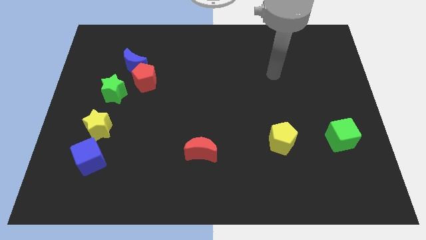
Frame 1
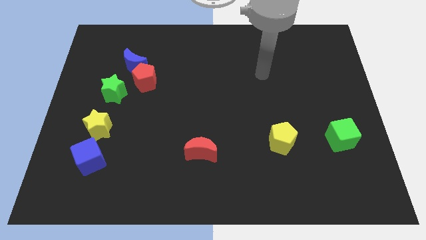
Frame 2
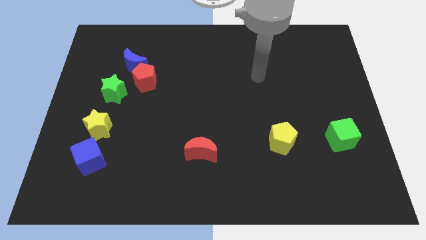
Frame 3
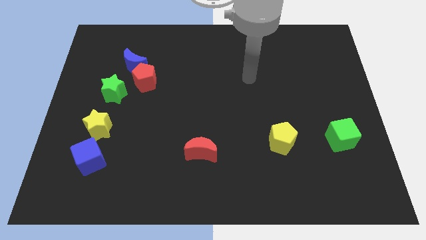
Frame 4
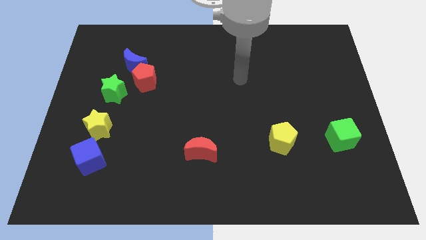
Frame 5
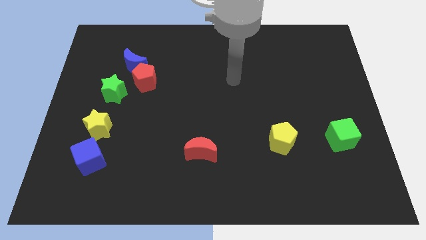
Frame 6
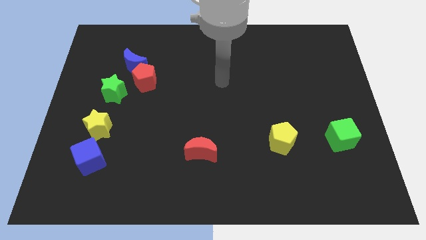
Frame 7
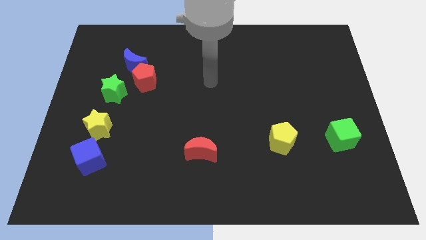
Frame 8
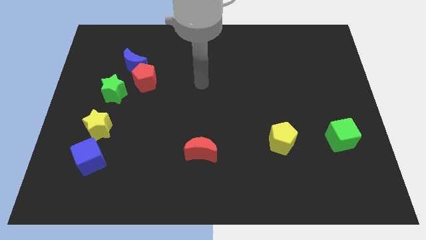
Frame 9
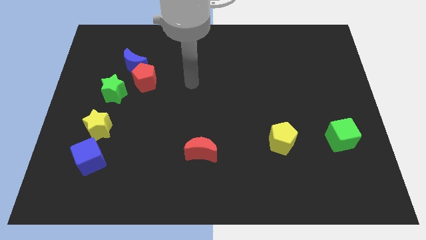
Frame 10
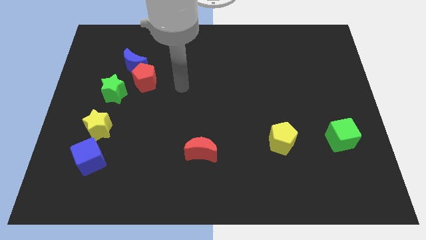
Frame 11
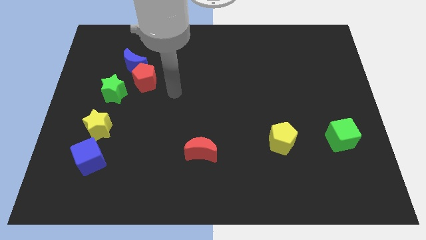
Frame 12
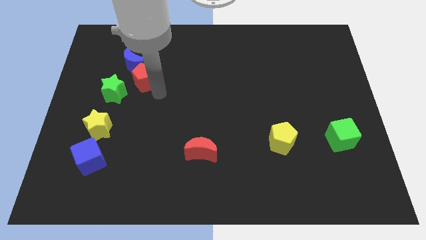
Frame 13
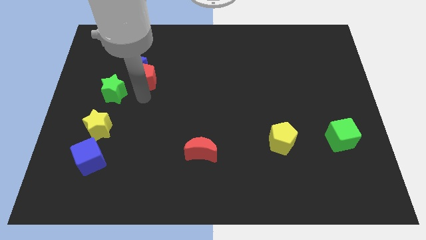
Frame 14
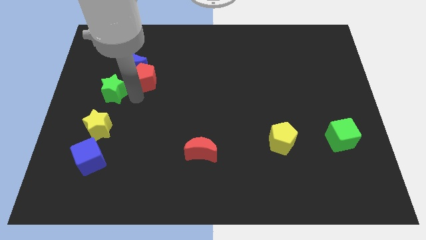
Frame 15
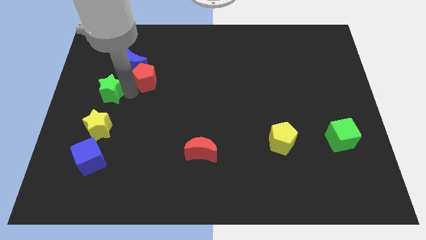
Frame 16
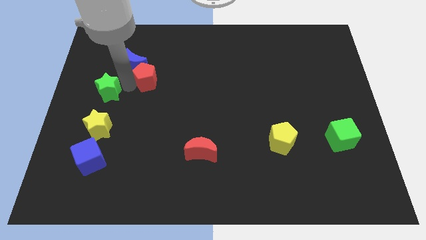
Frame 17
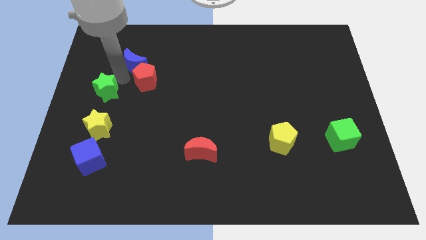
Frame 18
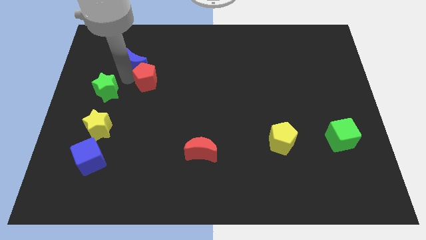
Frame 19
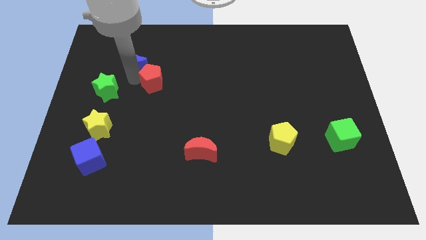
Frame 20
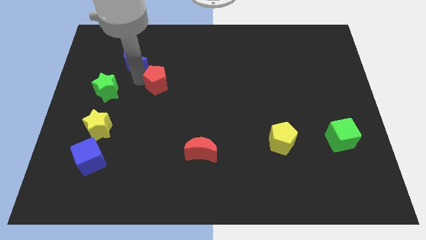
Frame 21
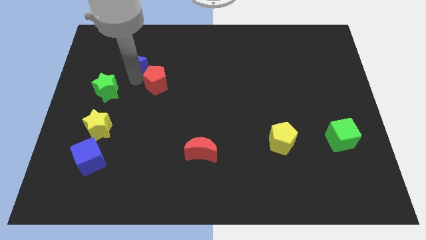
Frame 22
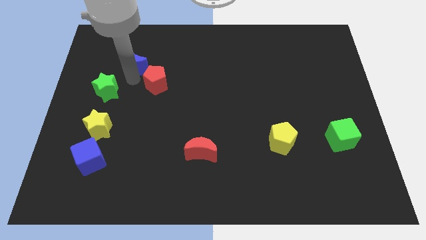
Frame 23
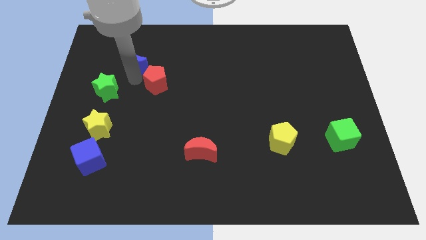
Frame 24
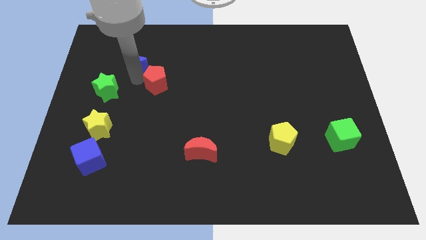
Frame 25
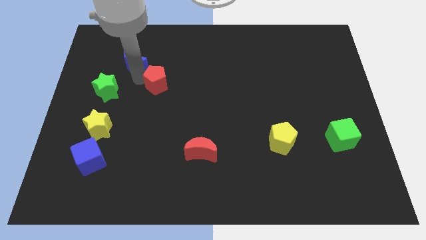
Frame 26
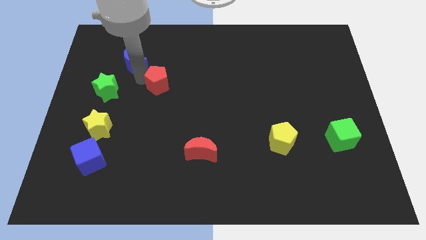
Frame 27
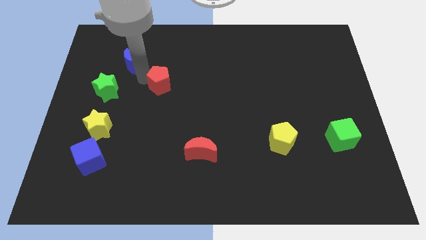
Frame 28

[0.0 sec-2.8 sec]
pull the red pentagon apart from the blue moon and green star

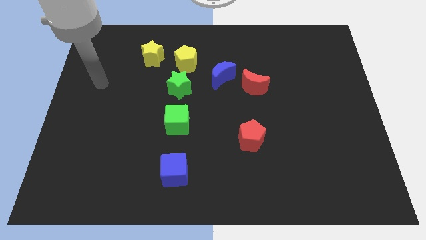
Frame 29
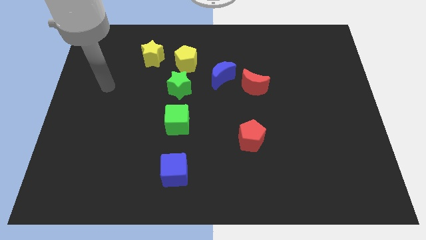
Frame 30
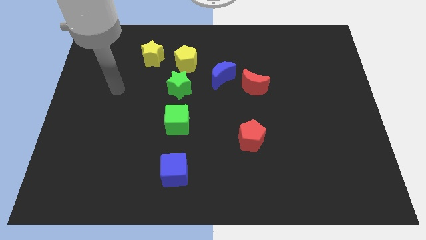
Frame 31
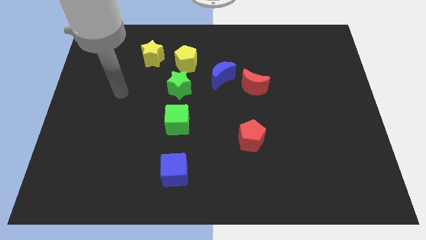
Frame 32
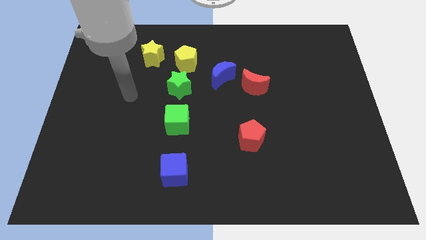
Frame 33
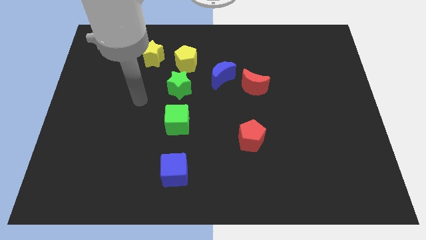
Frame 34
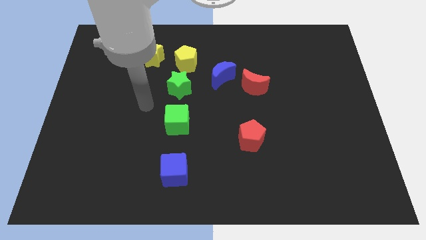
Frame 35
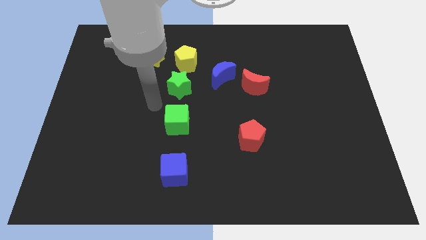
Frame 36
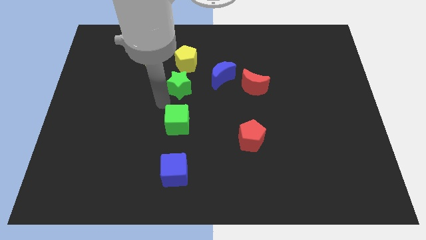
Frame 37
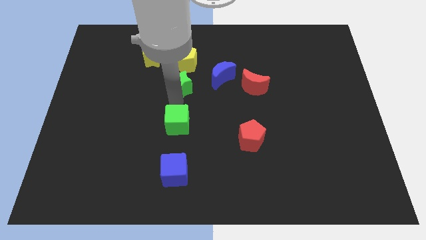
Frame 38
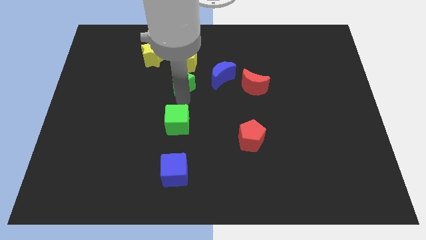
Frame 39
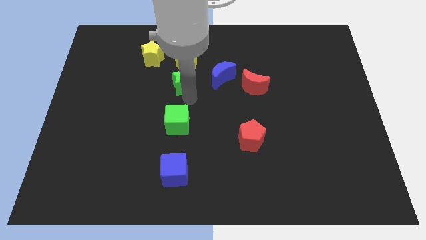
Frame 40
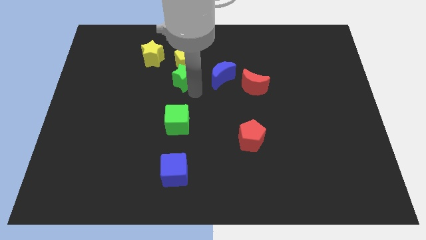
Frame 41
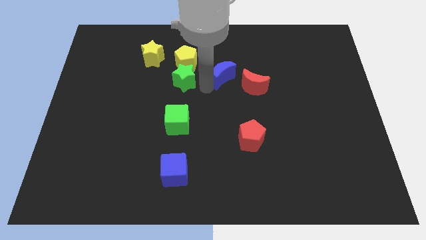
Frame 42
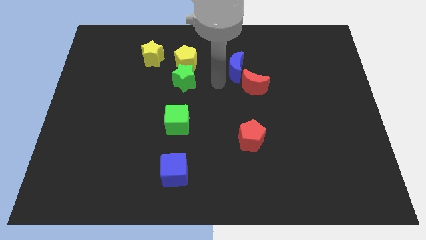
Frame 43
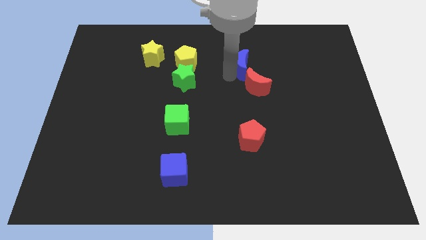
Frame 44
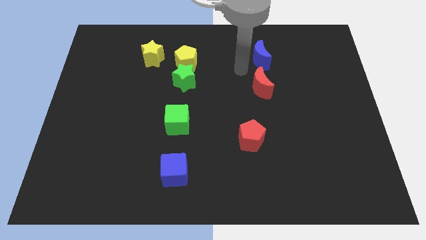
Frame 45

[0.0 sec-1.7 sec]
separate the red moon from the blue moon

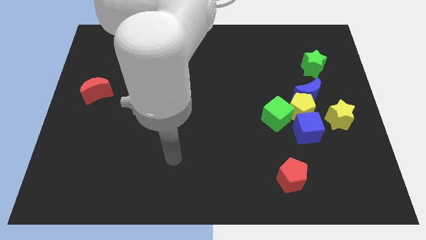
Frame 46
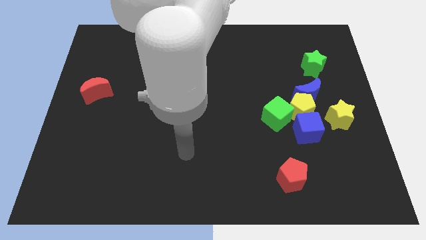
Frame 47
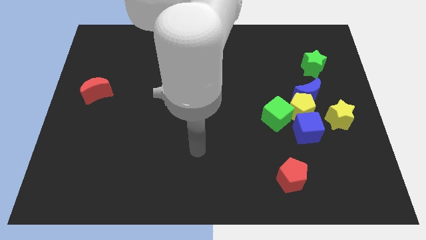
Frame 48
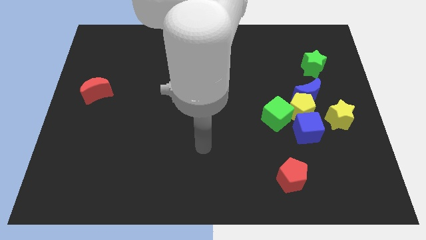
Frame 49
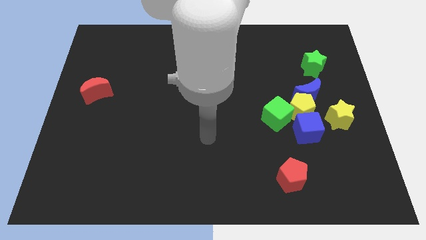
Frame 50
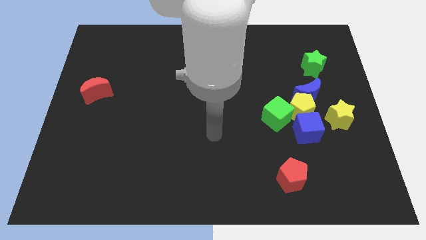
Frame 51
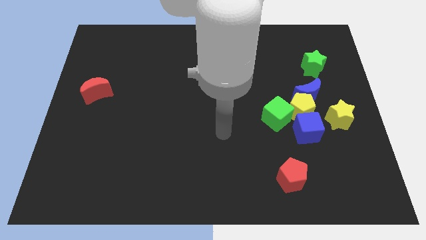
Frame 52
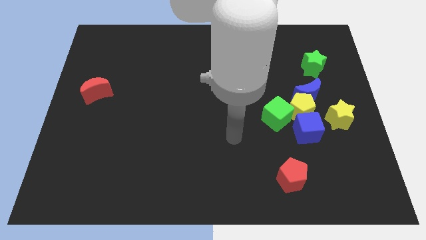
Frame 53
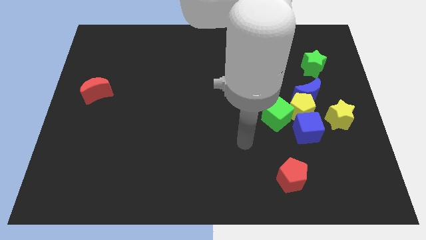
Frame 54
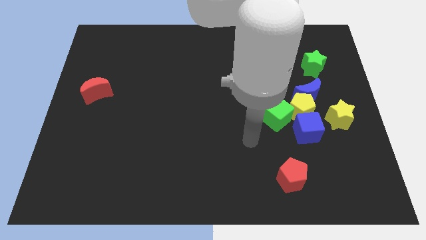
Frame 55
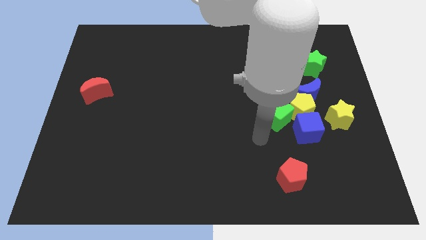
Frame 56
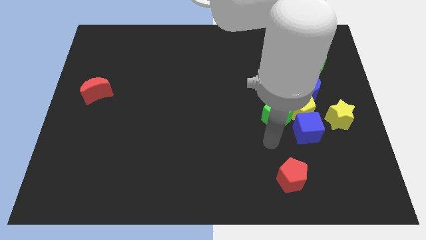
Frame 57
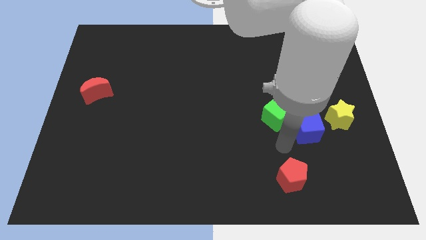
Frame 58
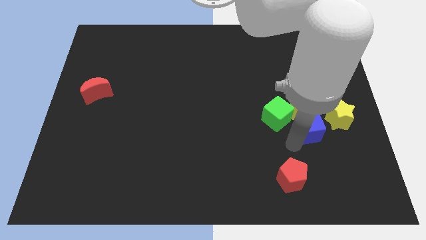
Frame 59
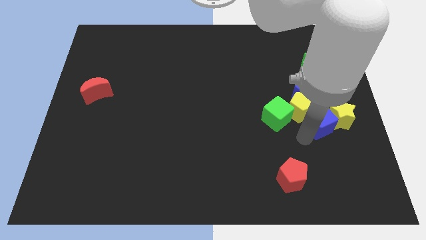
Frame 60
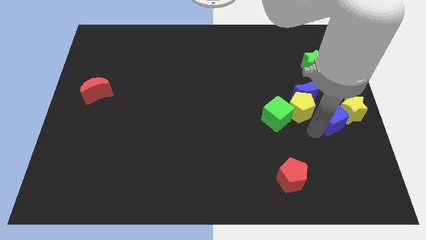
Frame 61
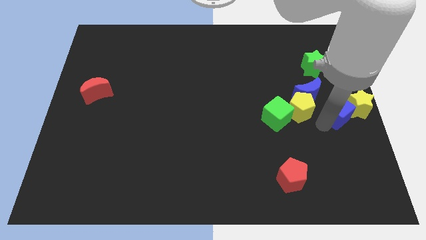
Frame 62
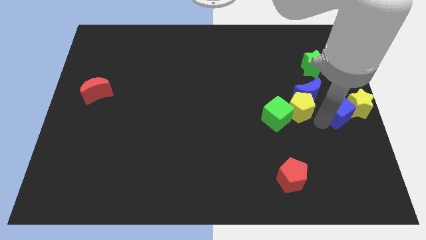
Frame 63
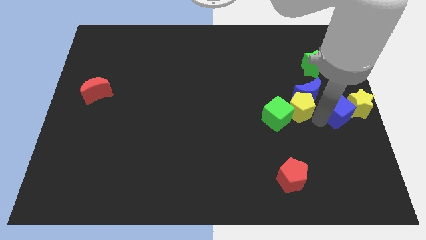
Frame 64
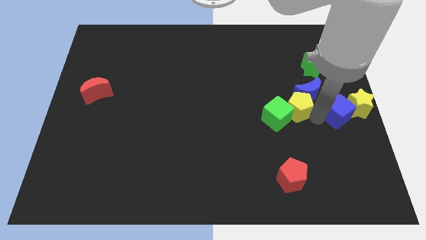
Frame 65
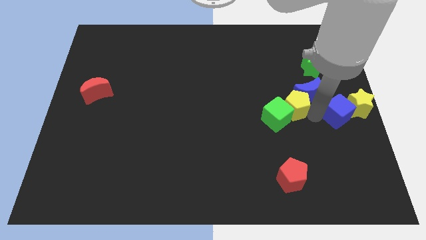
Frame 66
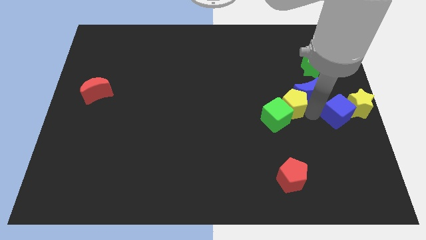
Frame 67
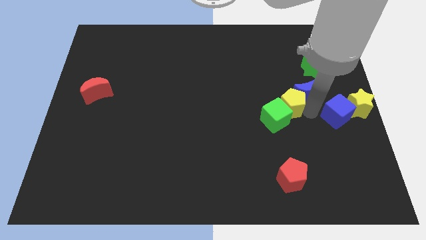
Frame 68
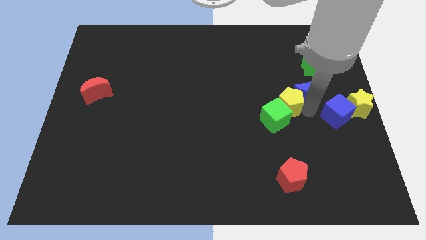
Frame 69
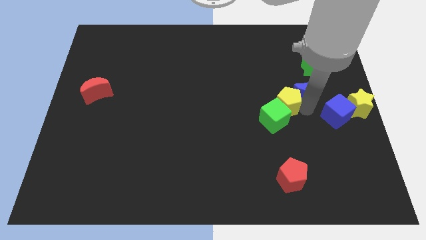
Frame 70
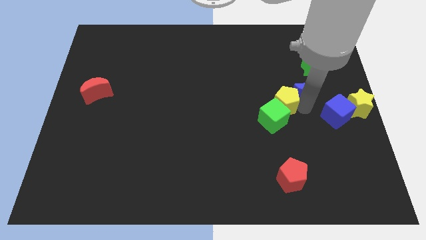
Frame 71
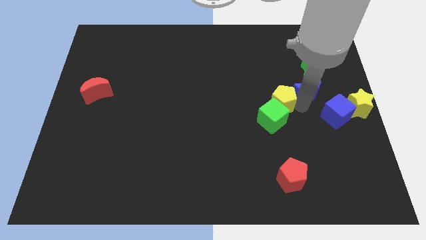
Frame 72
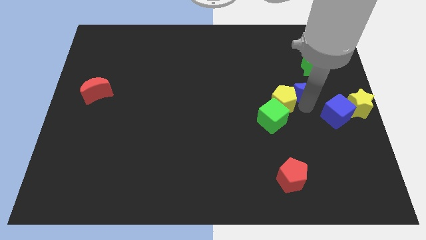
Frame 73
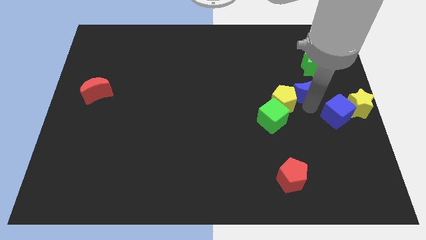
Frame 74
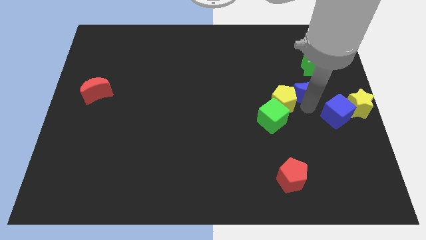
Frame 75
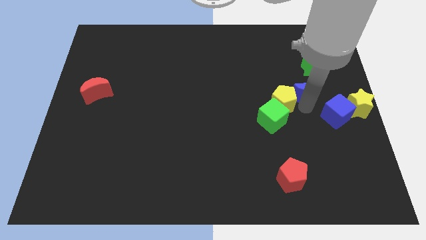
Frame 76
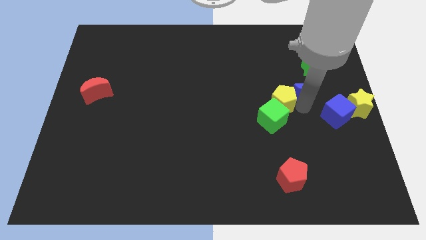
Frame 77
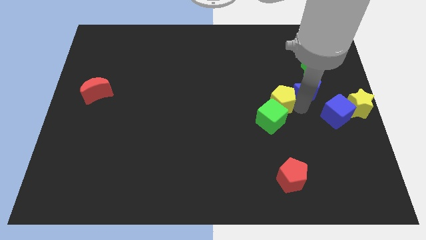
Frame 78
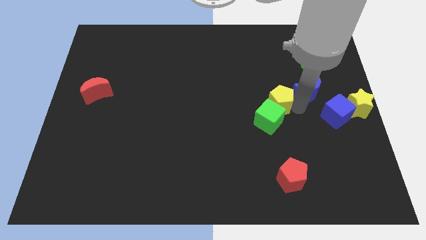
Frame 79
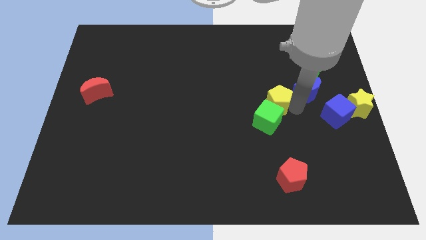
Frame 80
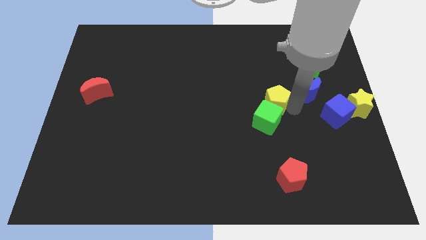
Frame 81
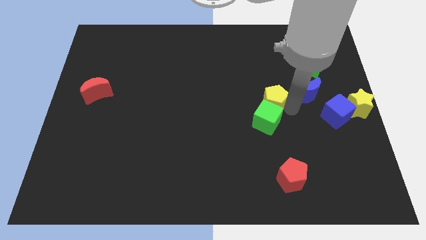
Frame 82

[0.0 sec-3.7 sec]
pull the yellow pentagon apart from the group of blocks

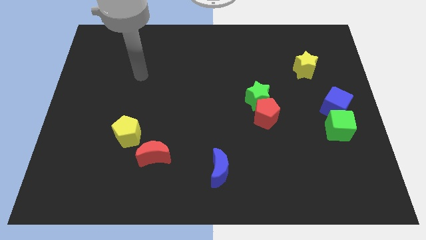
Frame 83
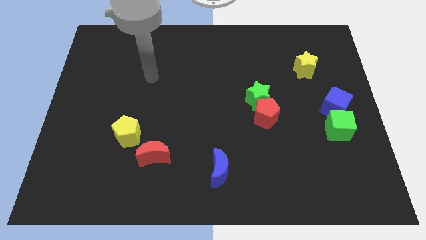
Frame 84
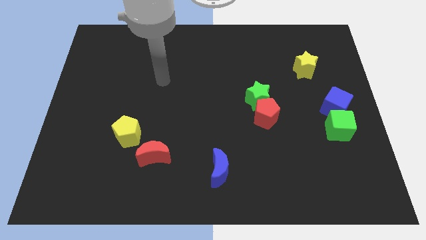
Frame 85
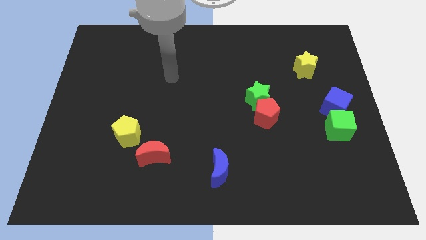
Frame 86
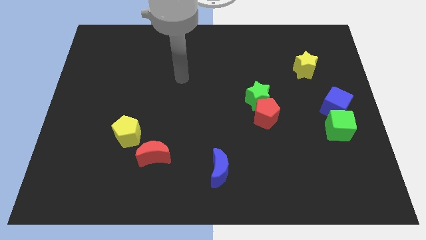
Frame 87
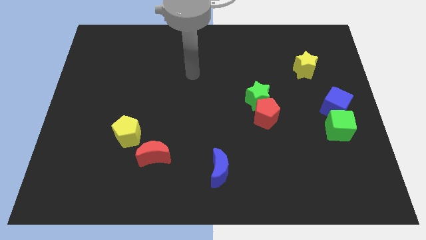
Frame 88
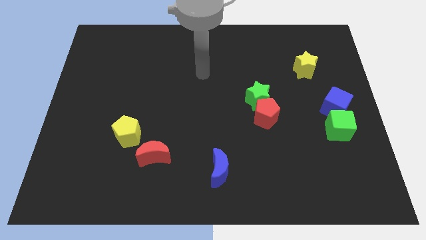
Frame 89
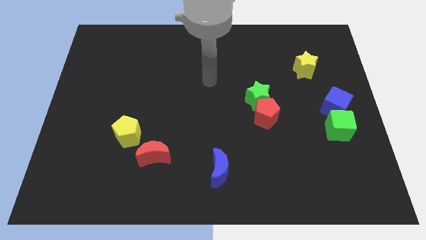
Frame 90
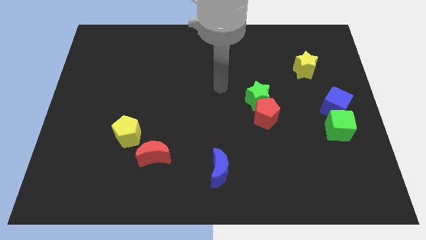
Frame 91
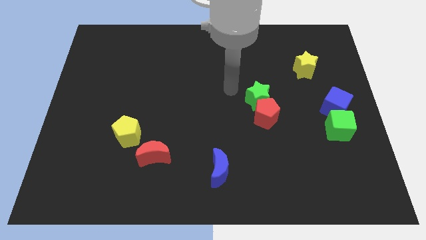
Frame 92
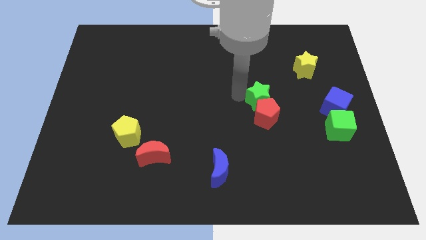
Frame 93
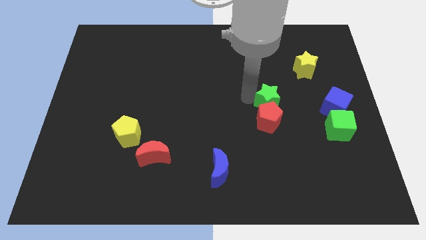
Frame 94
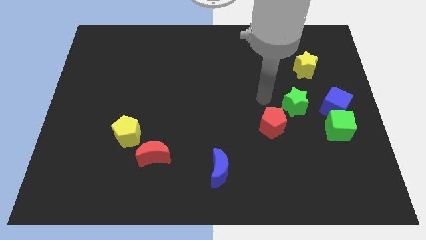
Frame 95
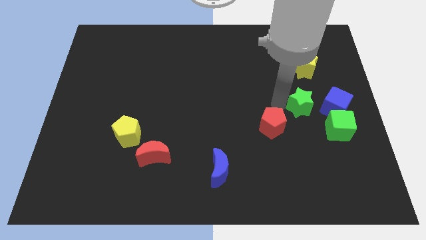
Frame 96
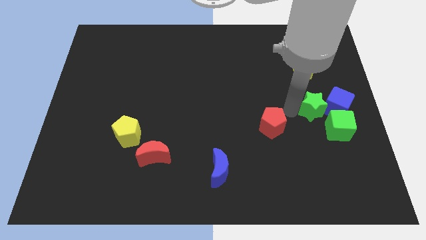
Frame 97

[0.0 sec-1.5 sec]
pull the red pentagon apart from the green star
